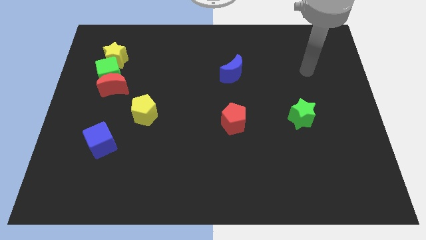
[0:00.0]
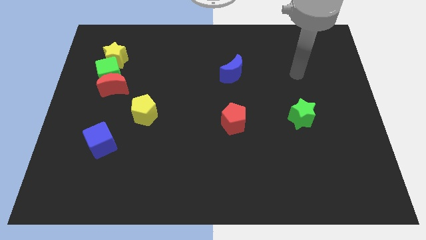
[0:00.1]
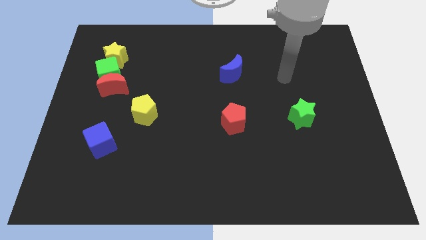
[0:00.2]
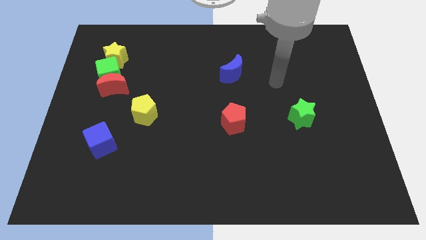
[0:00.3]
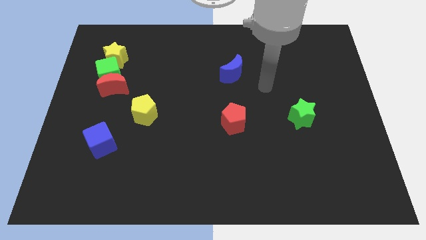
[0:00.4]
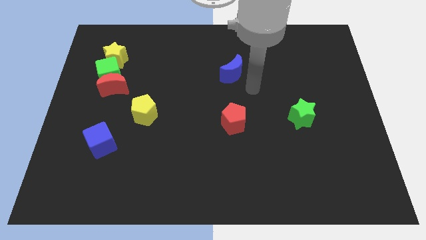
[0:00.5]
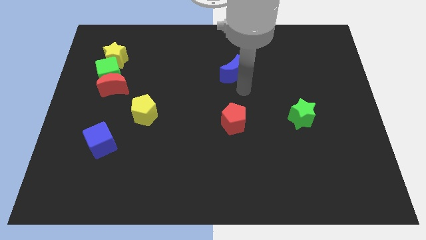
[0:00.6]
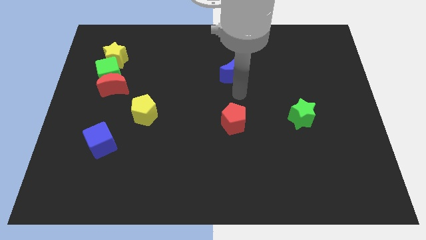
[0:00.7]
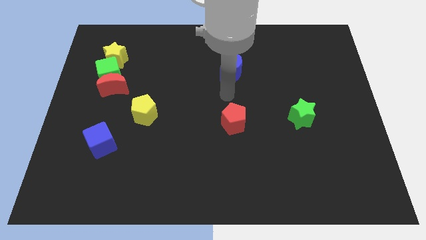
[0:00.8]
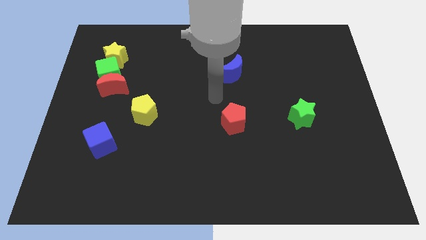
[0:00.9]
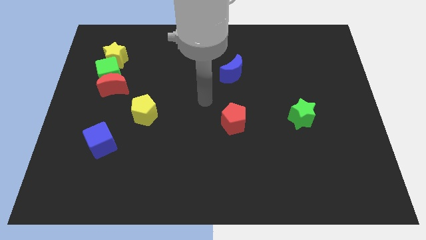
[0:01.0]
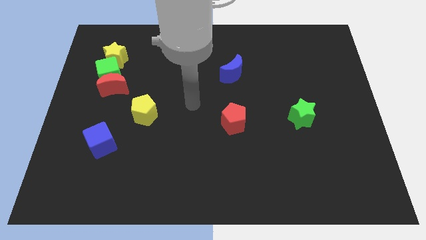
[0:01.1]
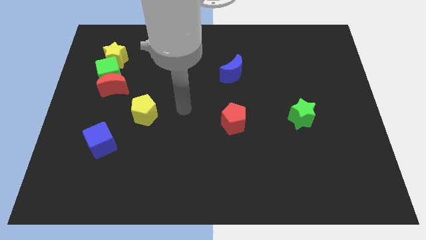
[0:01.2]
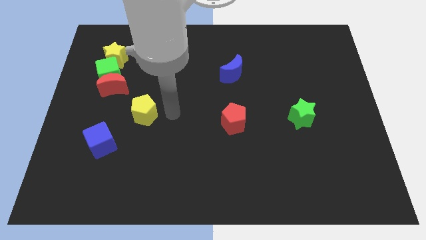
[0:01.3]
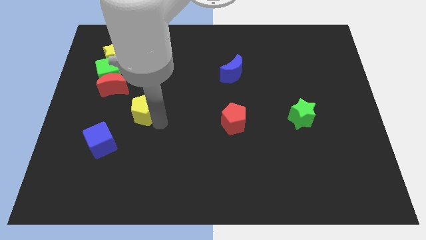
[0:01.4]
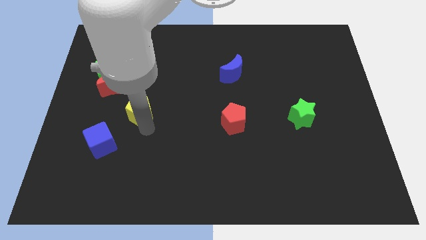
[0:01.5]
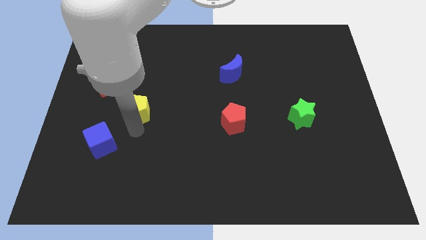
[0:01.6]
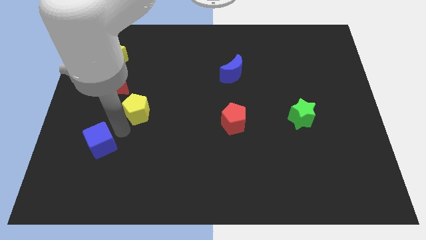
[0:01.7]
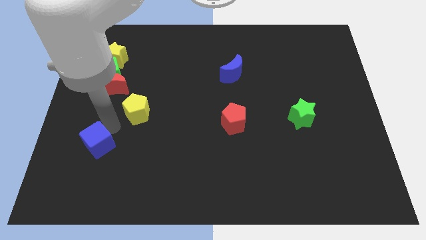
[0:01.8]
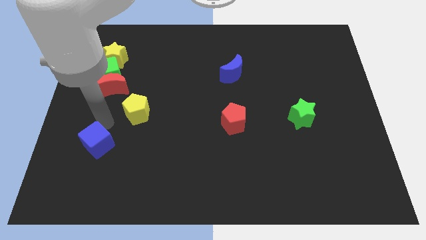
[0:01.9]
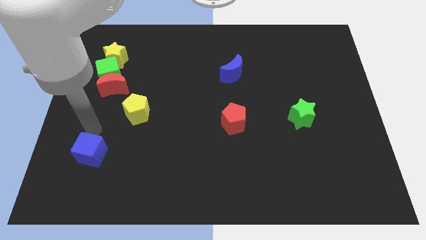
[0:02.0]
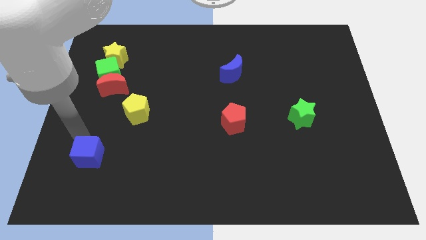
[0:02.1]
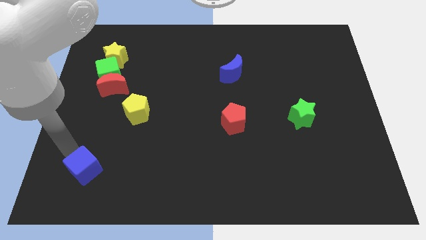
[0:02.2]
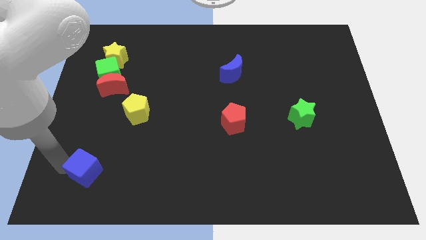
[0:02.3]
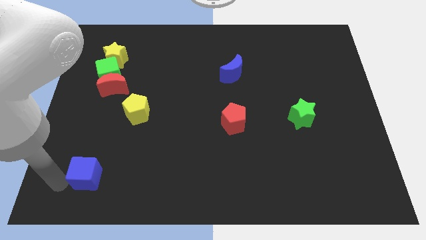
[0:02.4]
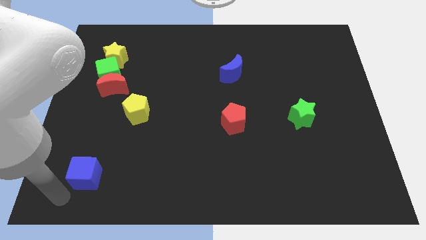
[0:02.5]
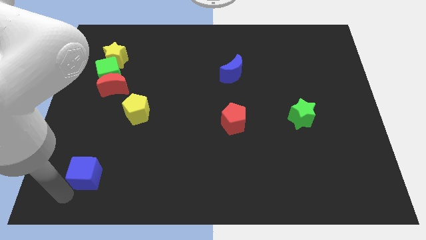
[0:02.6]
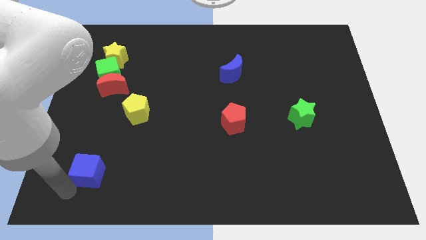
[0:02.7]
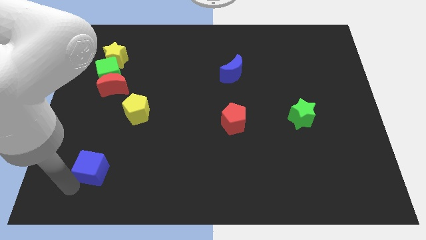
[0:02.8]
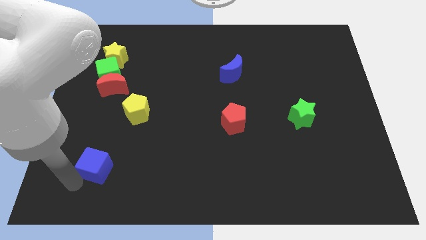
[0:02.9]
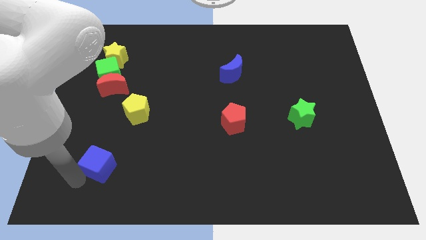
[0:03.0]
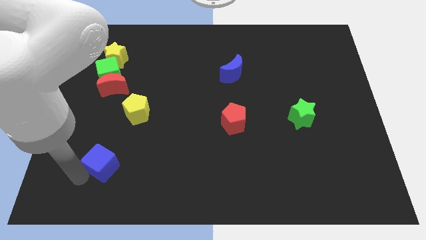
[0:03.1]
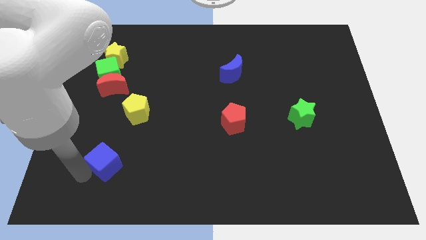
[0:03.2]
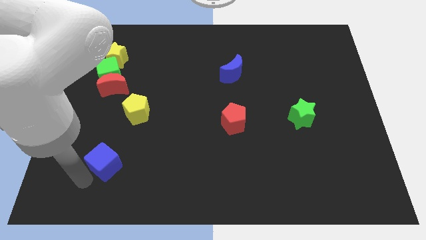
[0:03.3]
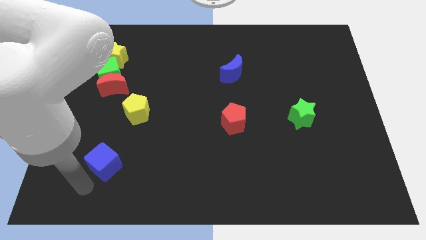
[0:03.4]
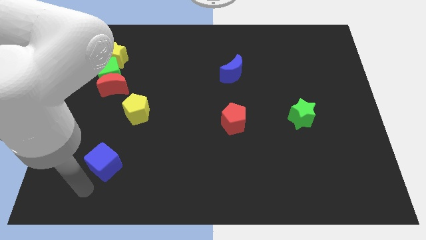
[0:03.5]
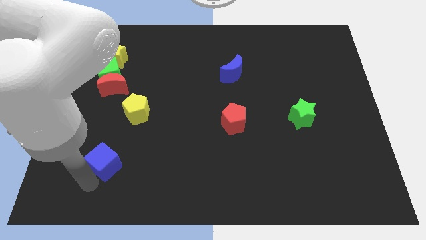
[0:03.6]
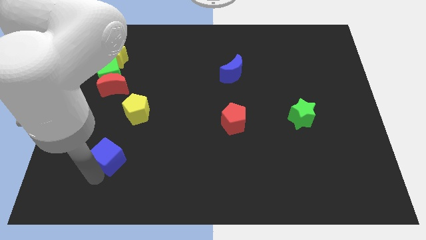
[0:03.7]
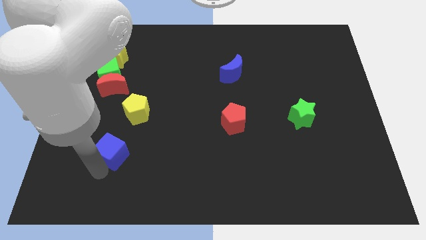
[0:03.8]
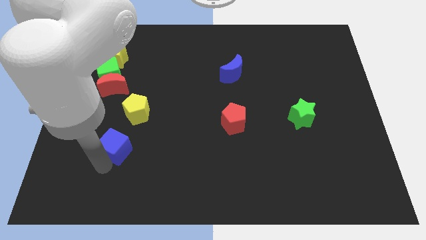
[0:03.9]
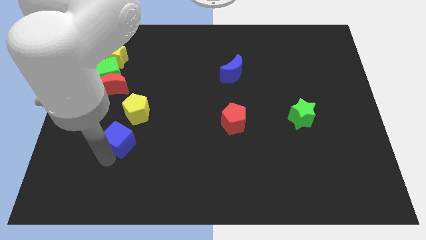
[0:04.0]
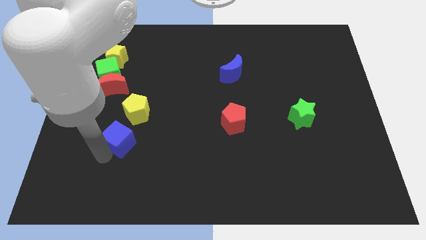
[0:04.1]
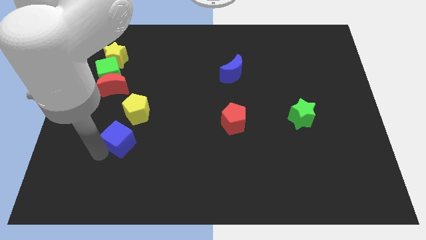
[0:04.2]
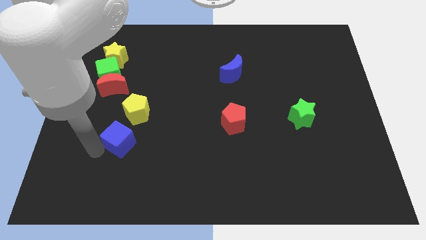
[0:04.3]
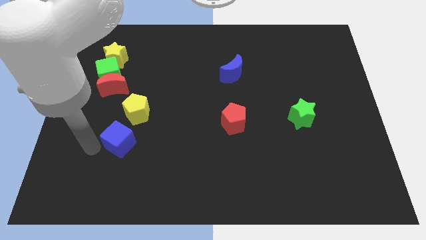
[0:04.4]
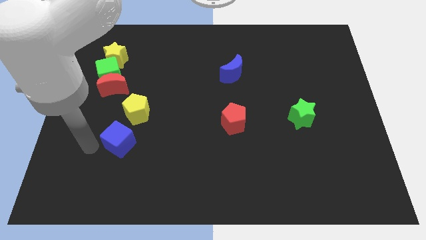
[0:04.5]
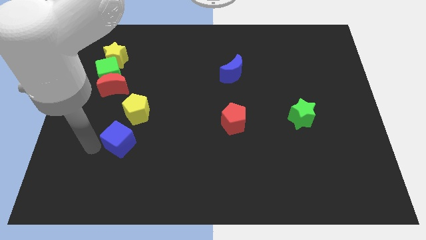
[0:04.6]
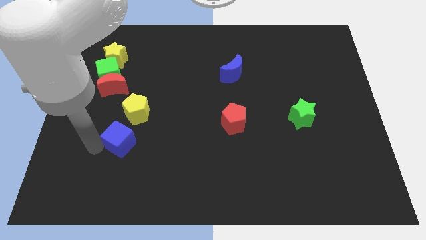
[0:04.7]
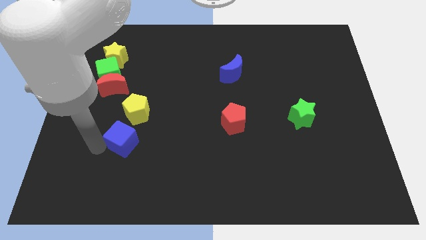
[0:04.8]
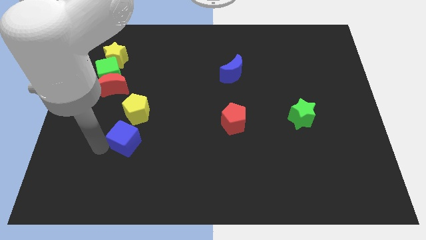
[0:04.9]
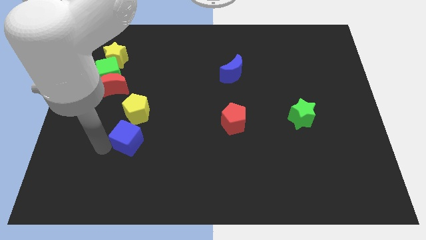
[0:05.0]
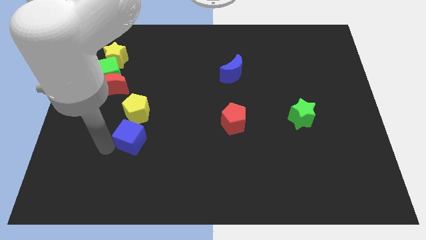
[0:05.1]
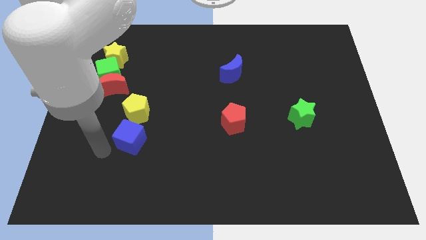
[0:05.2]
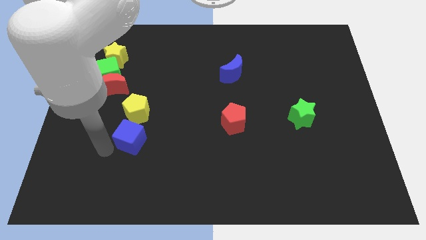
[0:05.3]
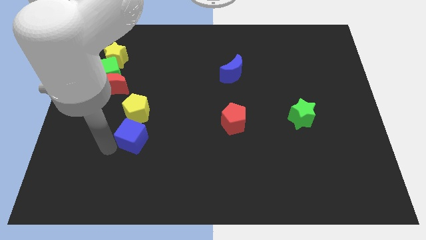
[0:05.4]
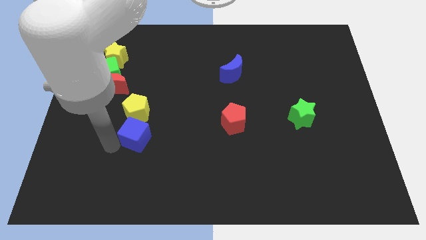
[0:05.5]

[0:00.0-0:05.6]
slide the blue cube diagonally down and to the right of the yellow pentagon

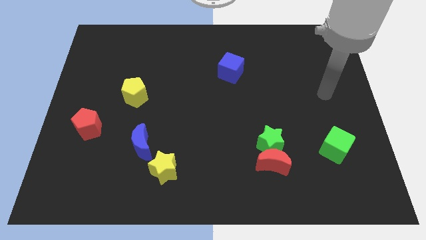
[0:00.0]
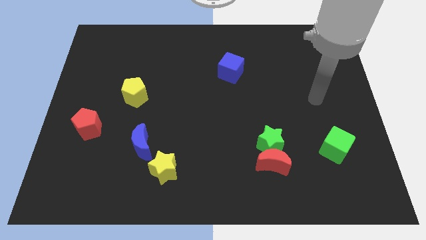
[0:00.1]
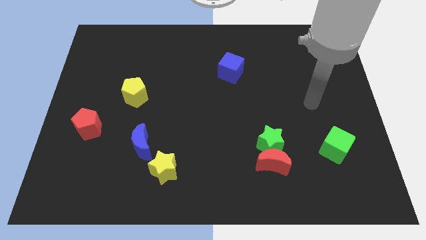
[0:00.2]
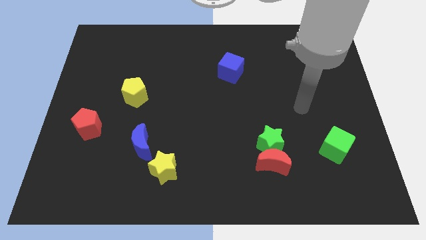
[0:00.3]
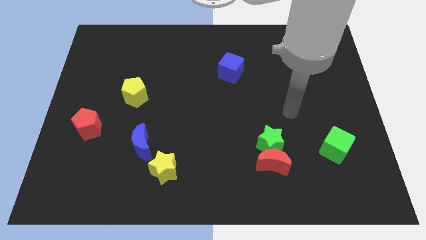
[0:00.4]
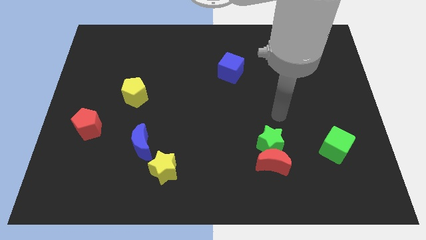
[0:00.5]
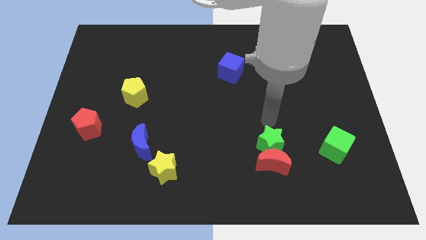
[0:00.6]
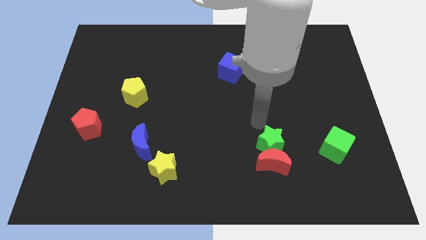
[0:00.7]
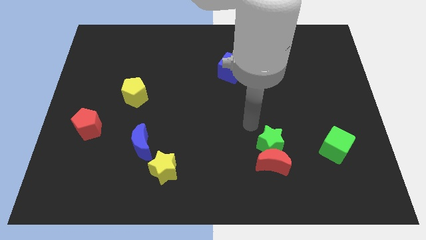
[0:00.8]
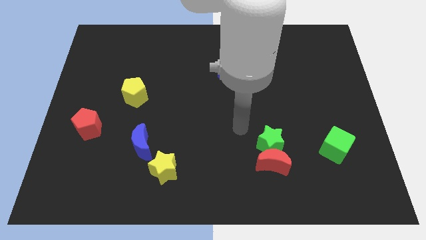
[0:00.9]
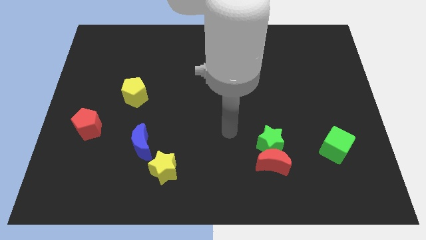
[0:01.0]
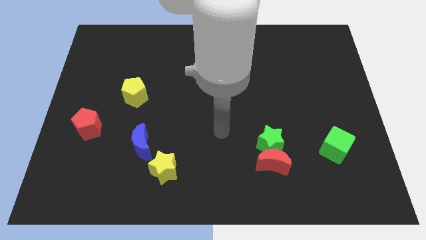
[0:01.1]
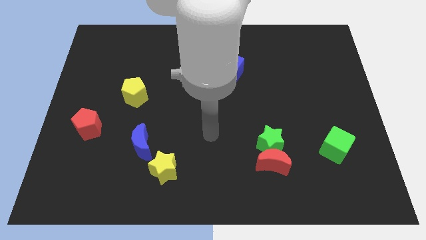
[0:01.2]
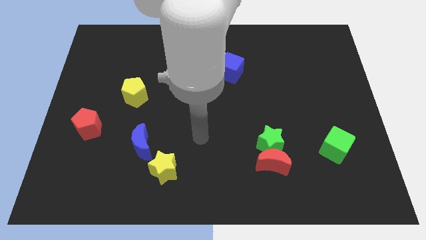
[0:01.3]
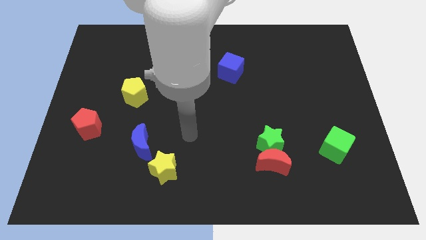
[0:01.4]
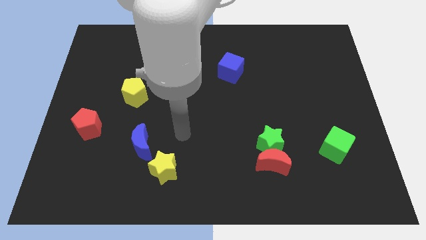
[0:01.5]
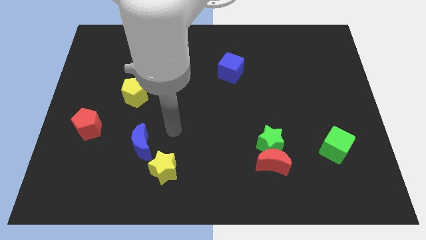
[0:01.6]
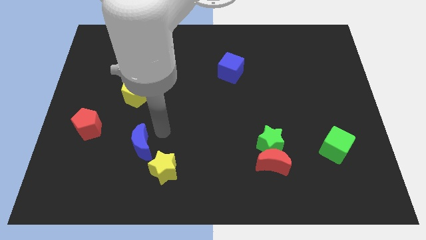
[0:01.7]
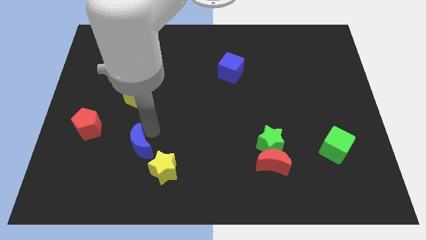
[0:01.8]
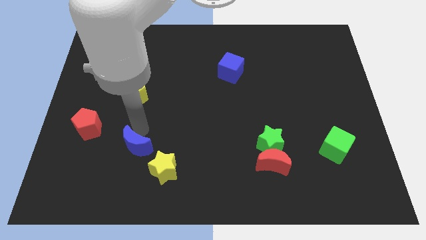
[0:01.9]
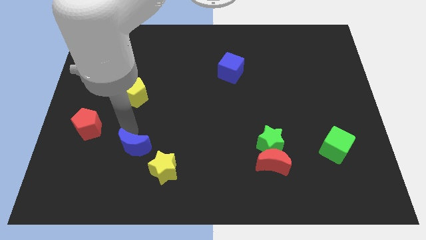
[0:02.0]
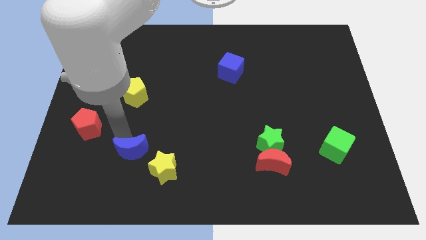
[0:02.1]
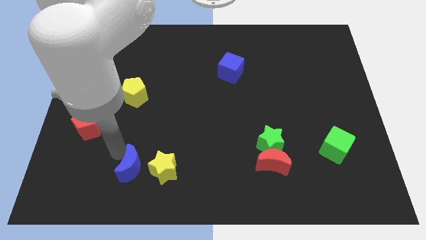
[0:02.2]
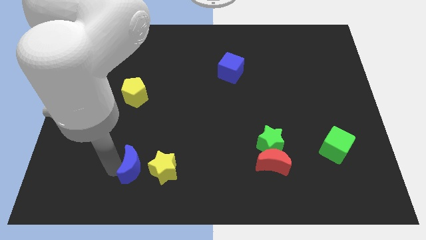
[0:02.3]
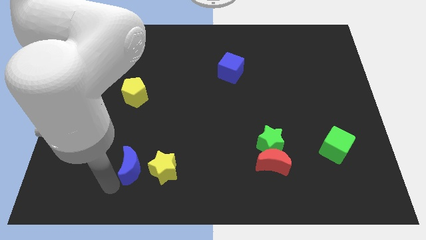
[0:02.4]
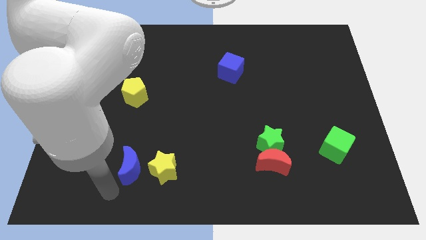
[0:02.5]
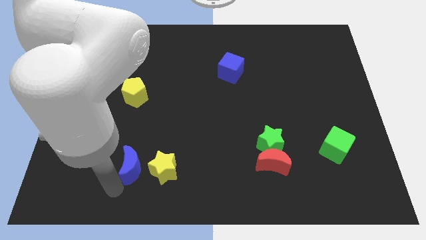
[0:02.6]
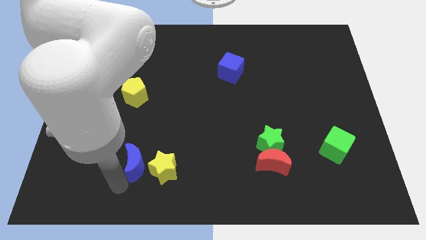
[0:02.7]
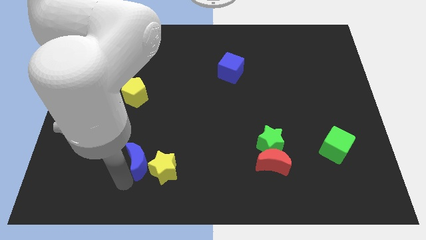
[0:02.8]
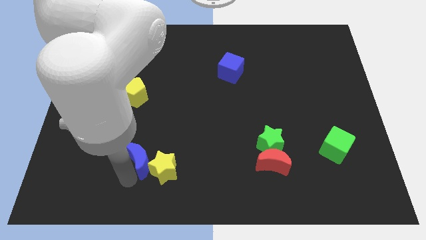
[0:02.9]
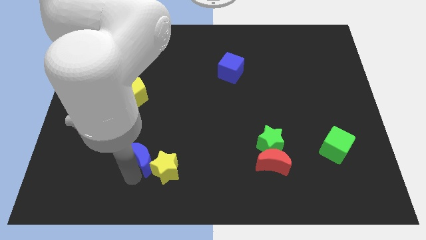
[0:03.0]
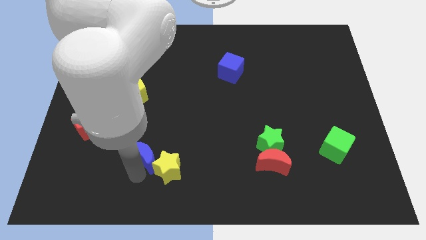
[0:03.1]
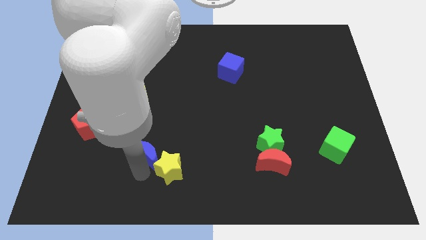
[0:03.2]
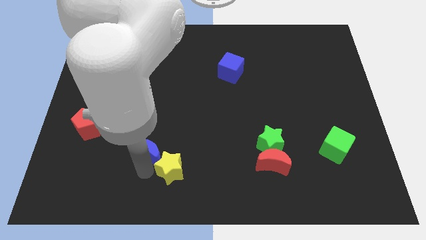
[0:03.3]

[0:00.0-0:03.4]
push the blue moon above the yellow star
